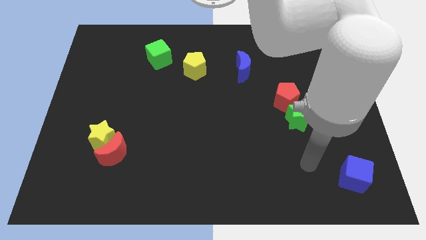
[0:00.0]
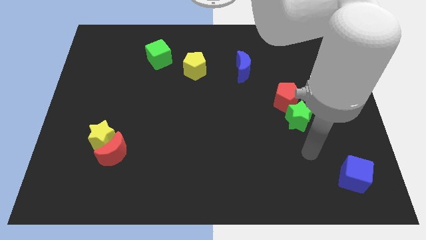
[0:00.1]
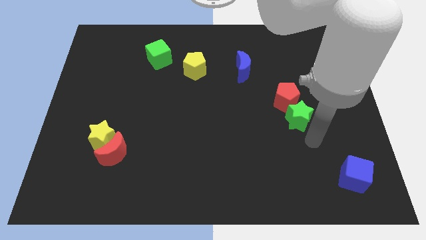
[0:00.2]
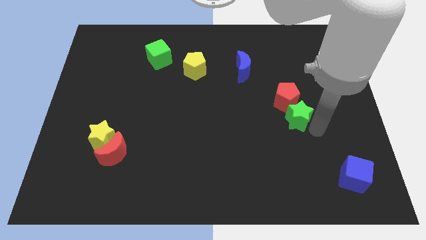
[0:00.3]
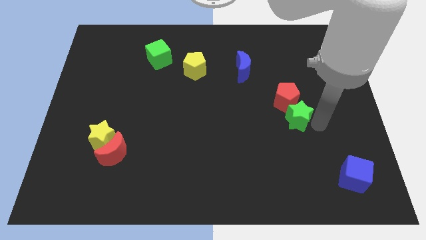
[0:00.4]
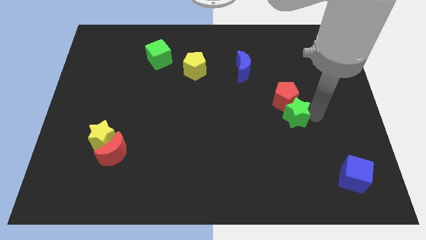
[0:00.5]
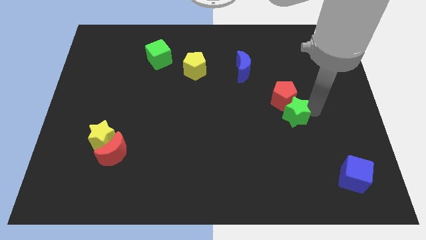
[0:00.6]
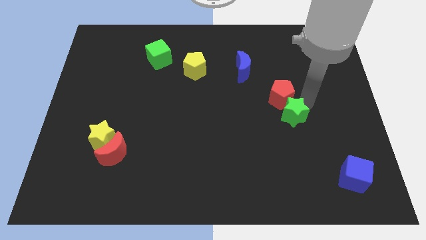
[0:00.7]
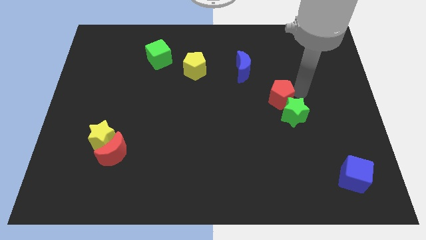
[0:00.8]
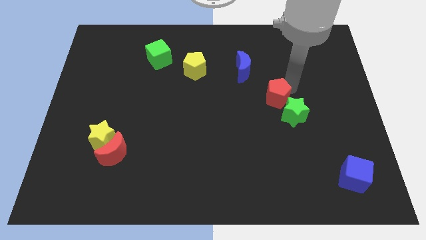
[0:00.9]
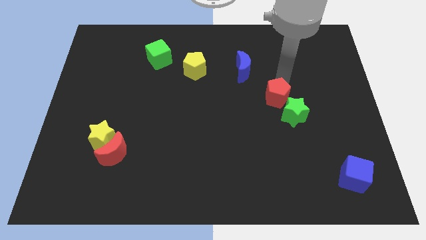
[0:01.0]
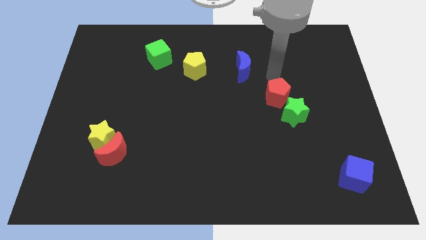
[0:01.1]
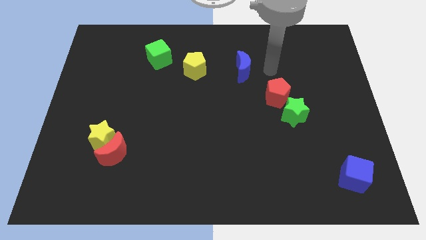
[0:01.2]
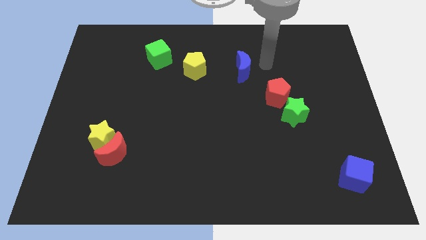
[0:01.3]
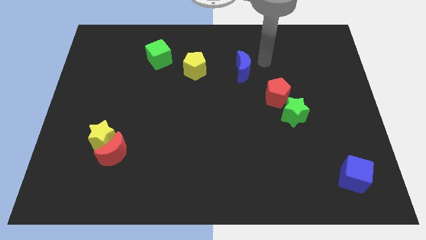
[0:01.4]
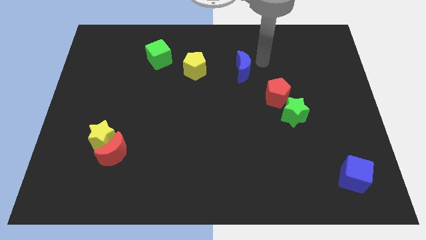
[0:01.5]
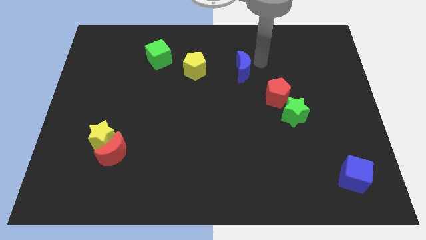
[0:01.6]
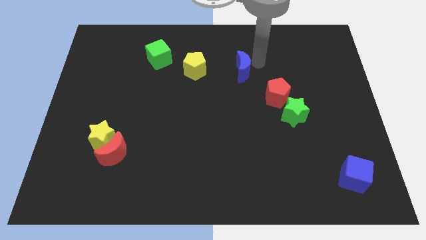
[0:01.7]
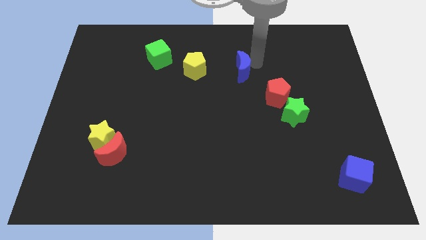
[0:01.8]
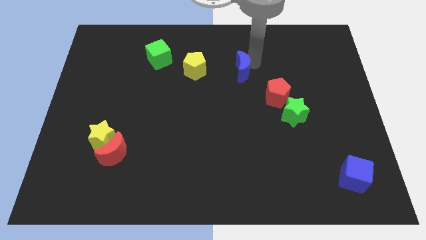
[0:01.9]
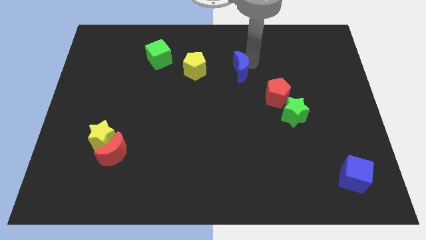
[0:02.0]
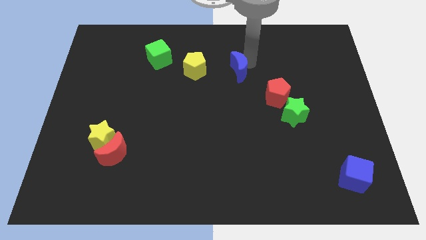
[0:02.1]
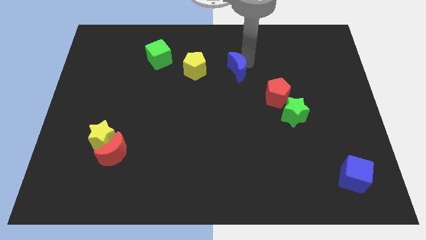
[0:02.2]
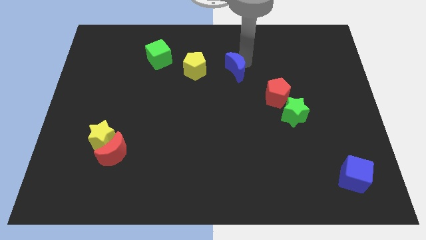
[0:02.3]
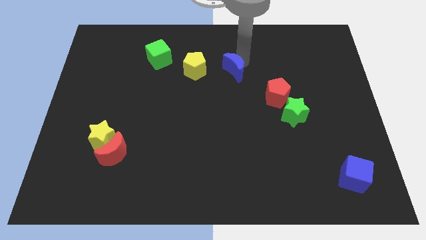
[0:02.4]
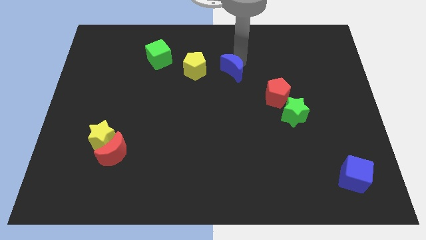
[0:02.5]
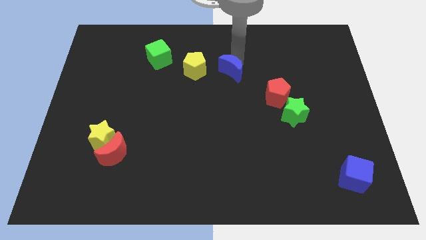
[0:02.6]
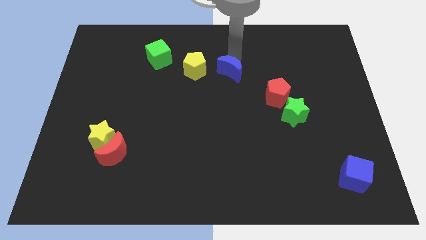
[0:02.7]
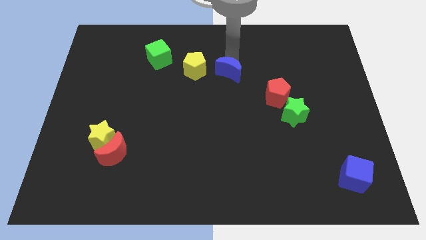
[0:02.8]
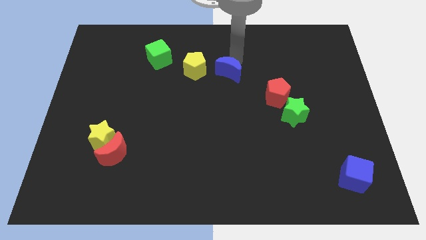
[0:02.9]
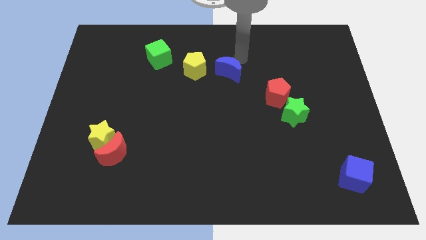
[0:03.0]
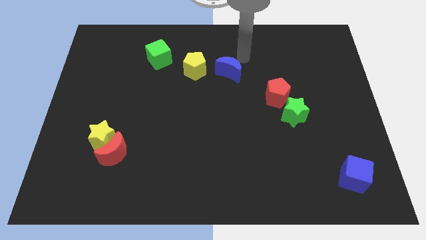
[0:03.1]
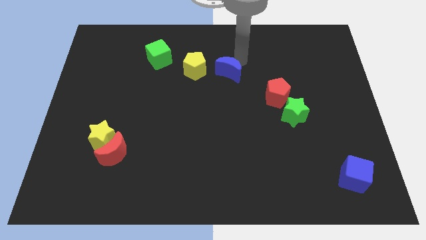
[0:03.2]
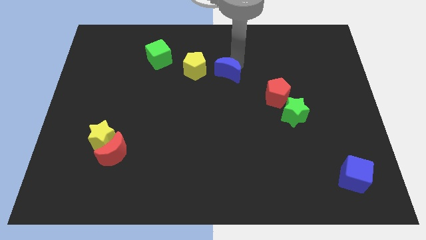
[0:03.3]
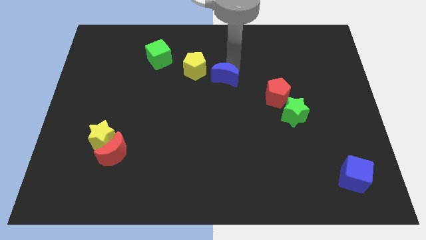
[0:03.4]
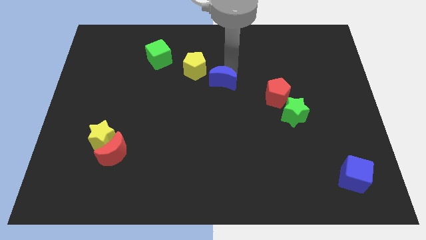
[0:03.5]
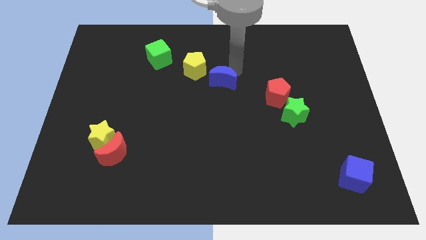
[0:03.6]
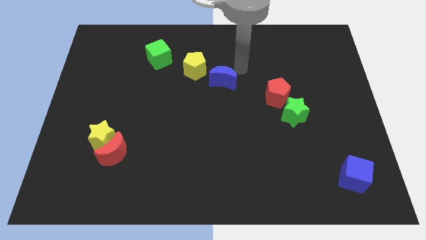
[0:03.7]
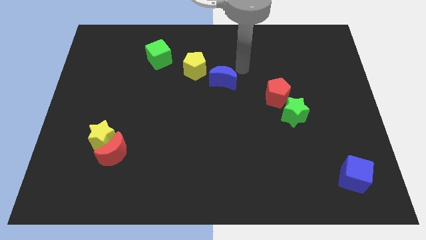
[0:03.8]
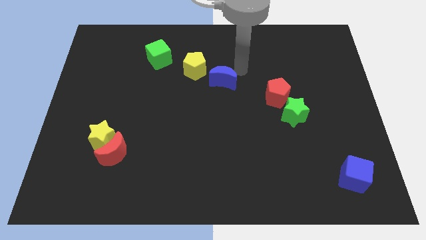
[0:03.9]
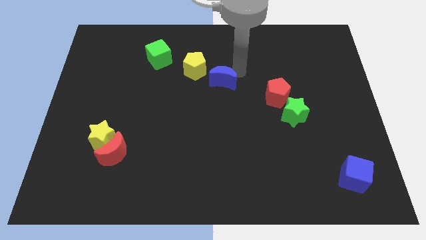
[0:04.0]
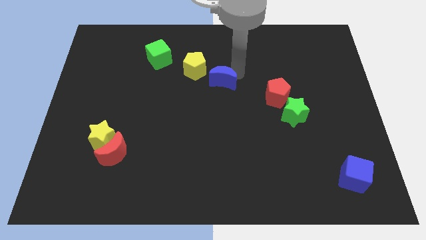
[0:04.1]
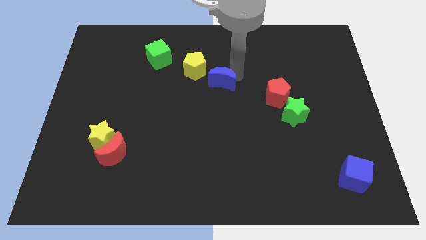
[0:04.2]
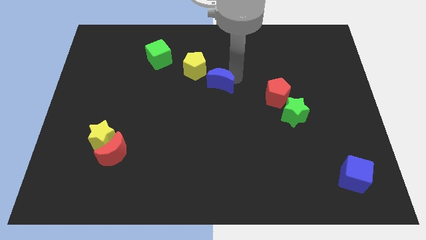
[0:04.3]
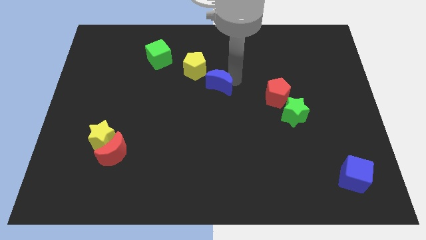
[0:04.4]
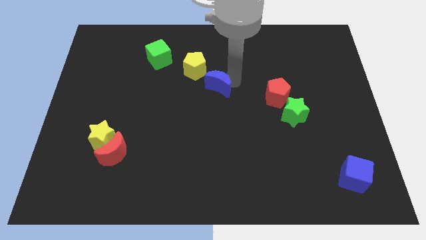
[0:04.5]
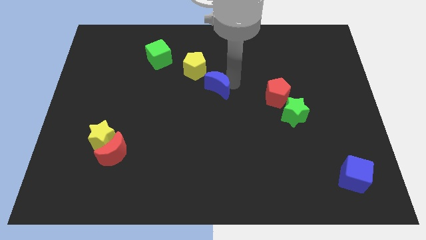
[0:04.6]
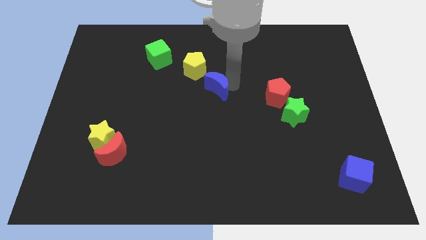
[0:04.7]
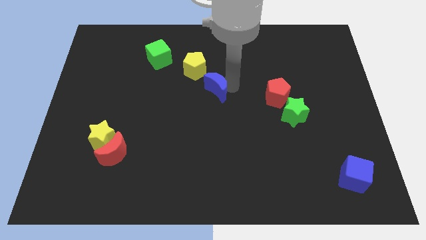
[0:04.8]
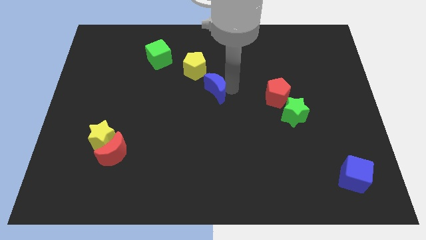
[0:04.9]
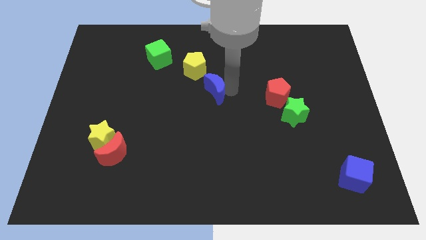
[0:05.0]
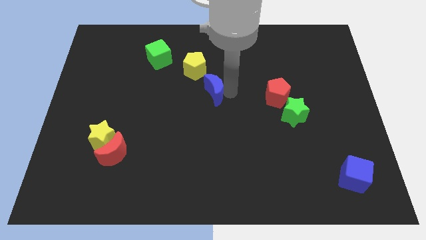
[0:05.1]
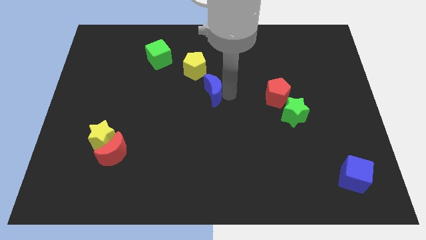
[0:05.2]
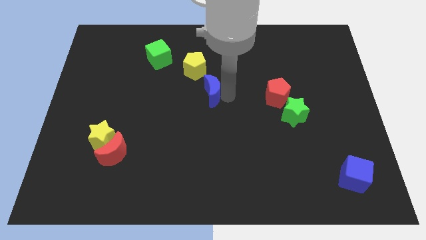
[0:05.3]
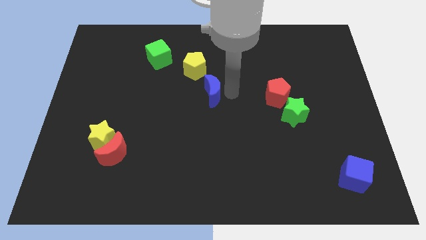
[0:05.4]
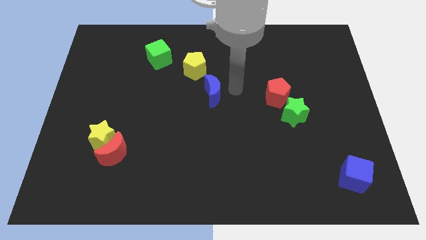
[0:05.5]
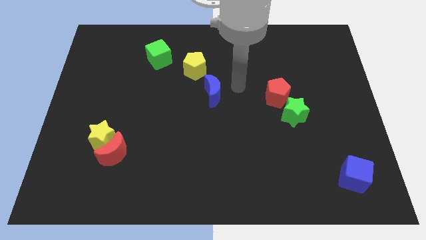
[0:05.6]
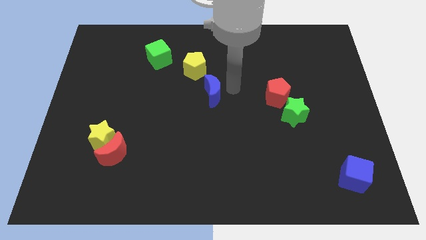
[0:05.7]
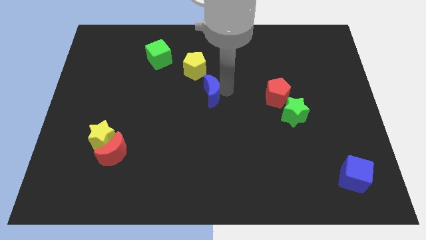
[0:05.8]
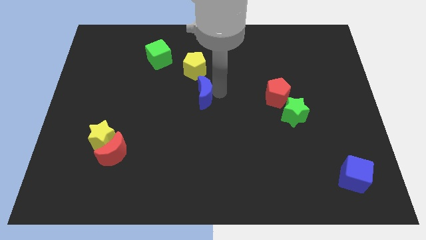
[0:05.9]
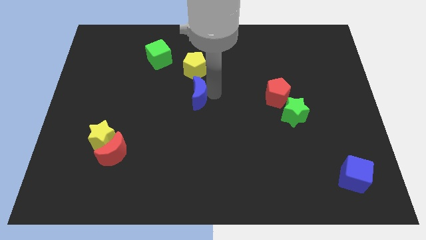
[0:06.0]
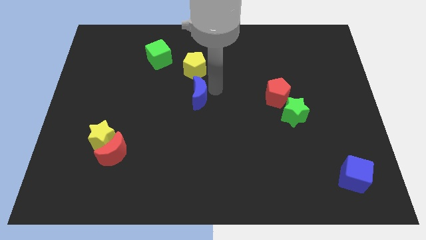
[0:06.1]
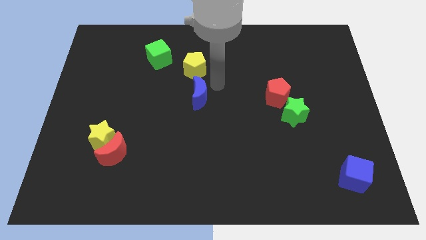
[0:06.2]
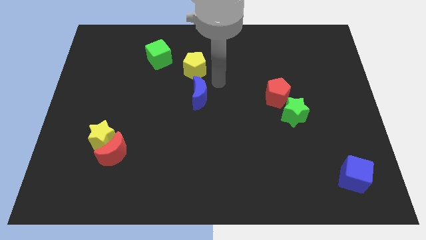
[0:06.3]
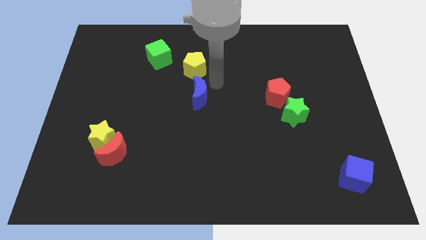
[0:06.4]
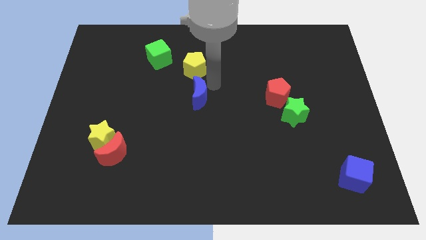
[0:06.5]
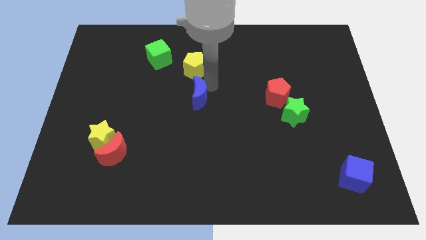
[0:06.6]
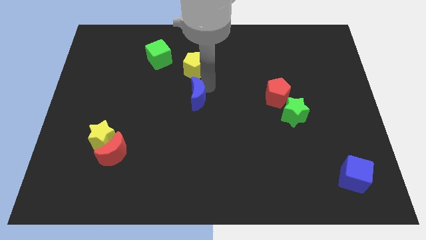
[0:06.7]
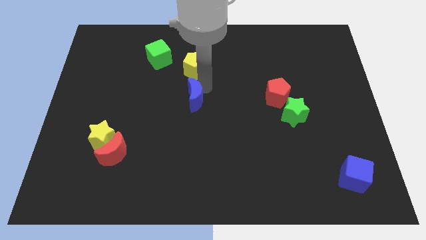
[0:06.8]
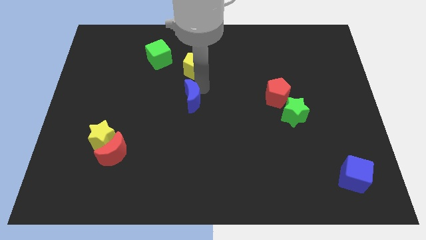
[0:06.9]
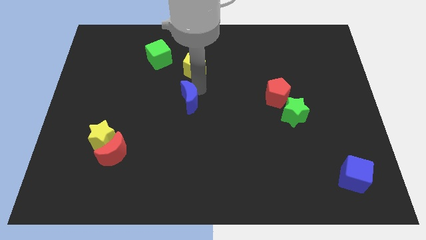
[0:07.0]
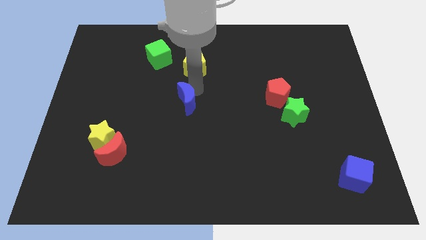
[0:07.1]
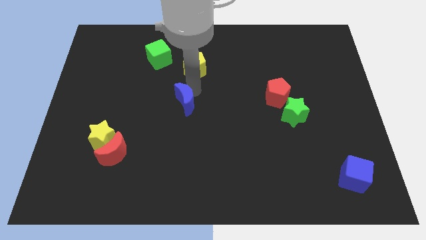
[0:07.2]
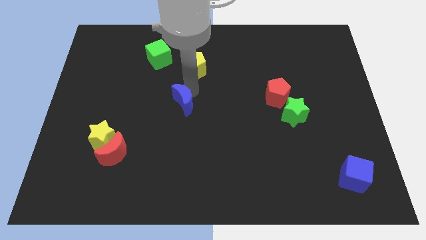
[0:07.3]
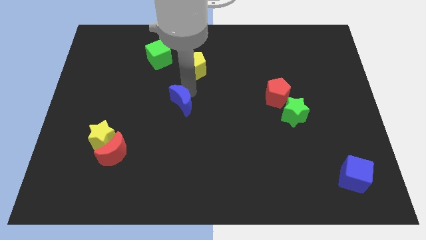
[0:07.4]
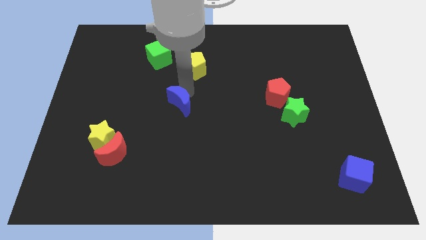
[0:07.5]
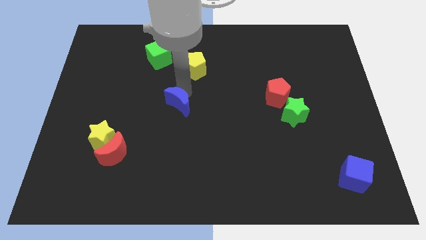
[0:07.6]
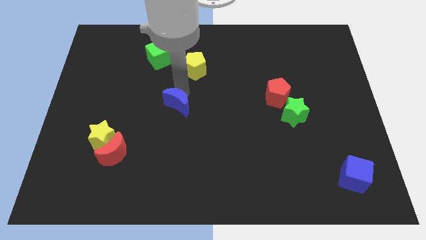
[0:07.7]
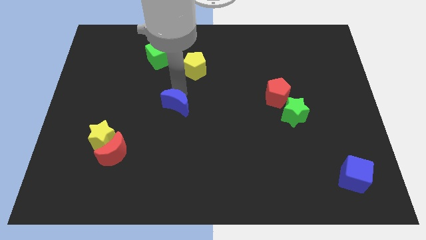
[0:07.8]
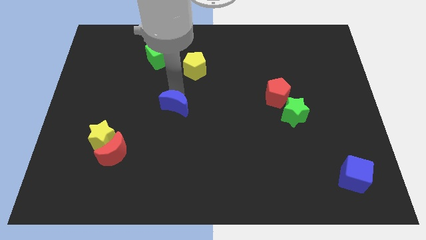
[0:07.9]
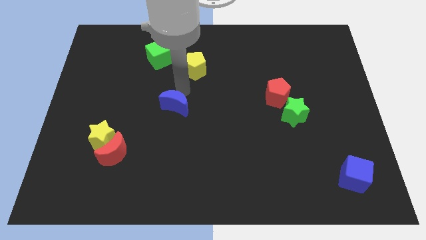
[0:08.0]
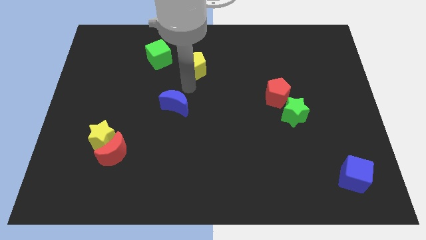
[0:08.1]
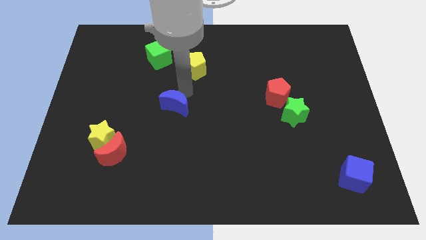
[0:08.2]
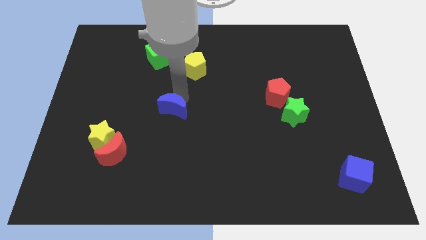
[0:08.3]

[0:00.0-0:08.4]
slide the blue moon diagonally downwards and to the left
